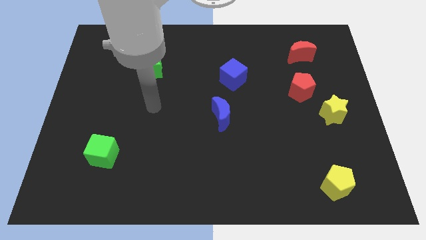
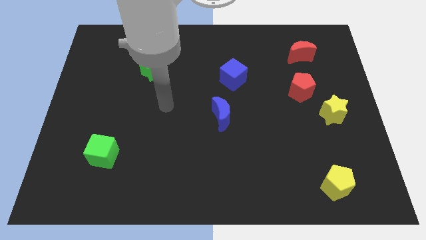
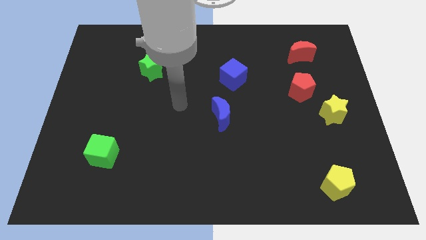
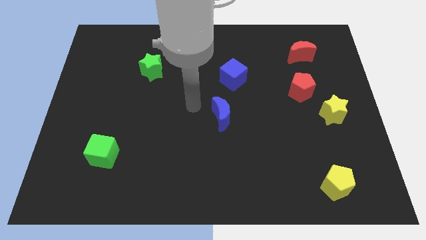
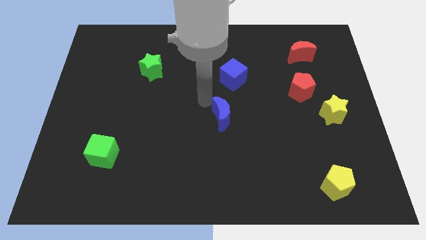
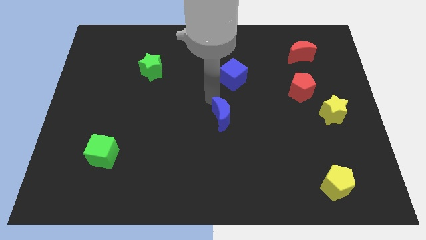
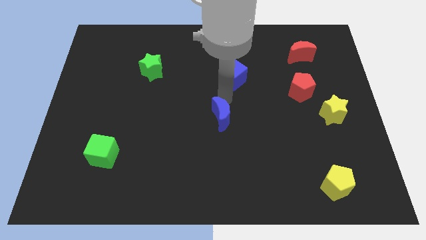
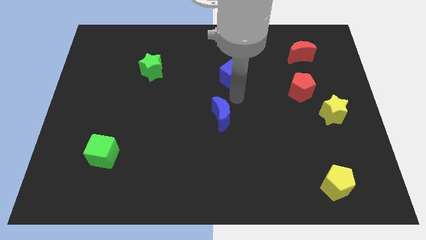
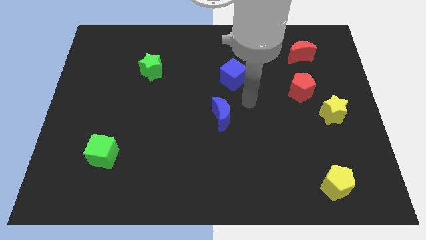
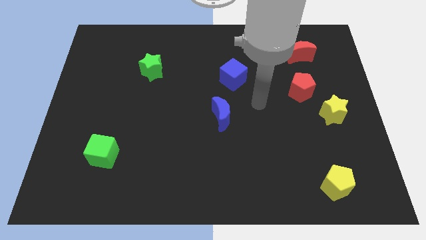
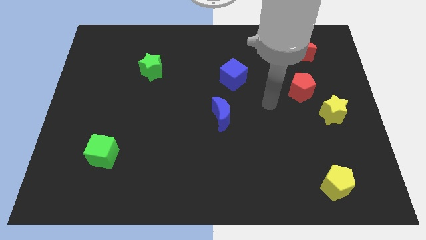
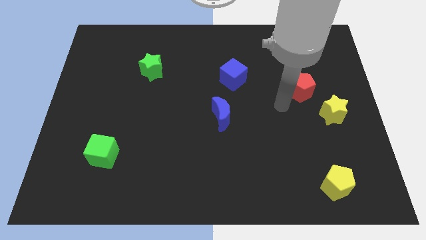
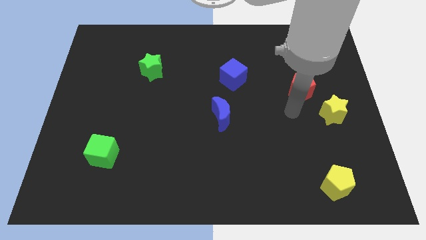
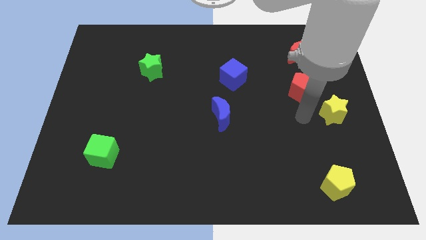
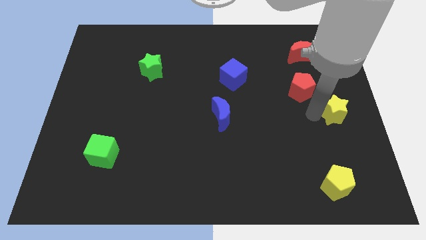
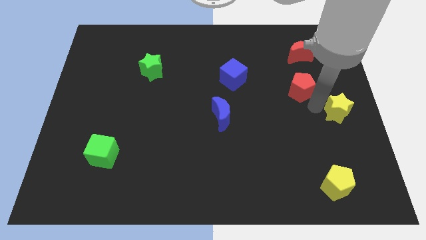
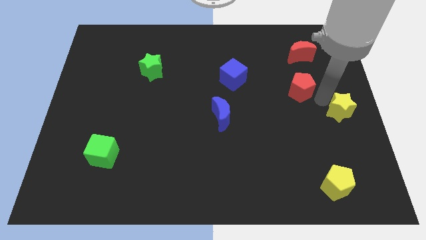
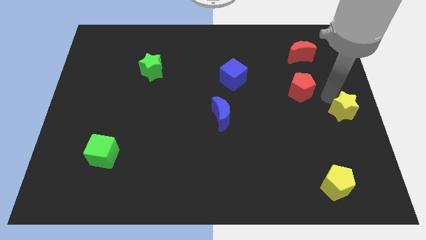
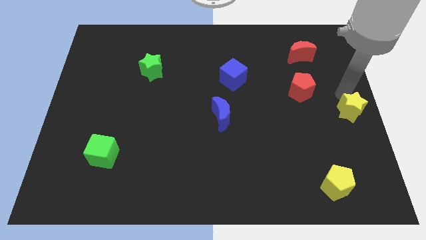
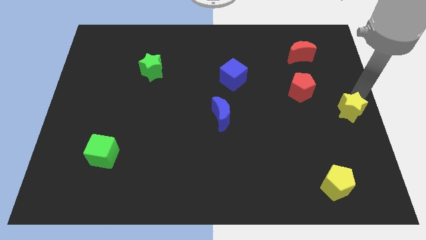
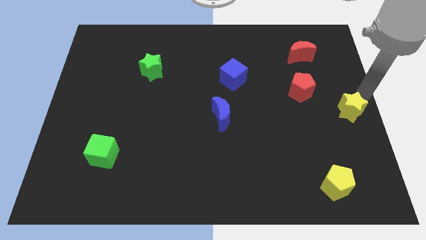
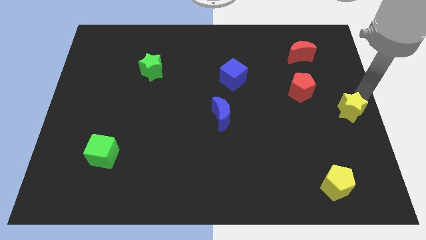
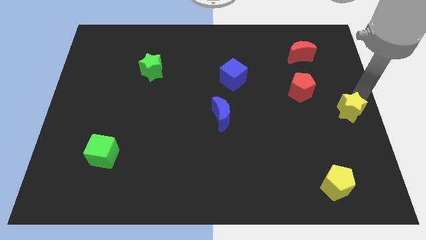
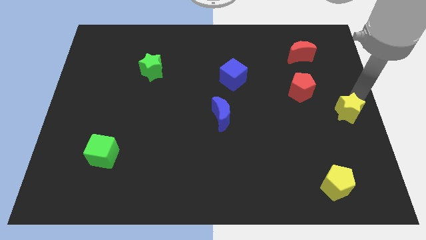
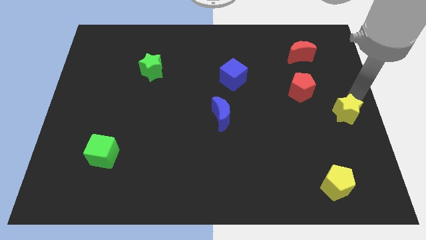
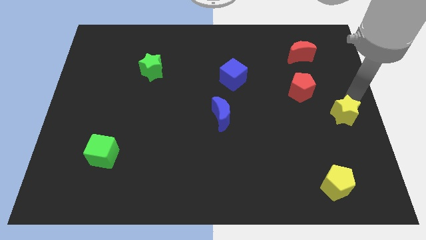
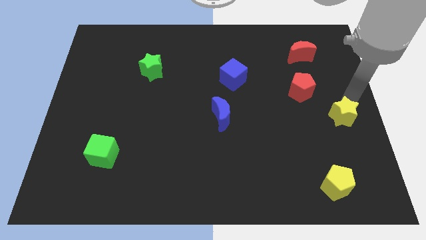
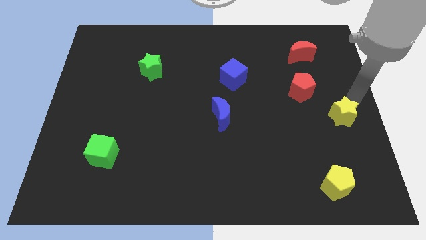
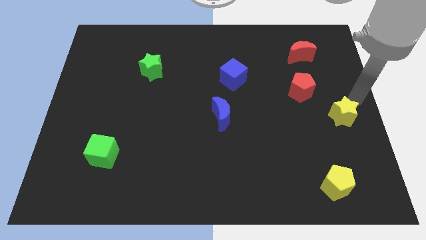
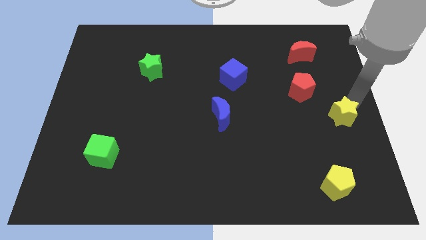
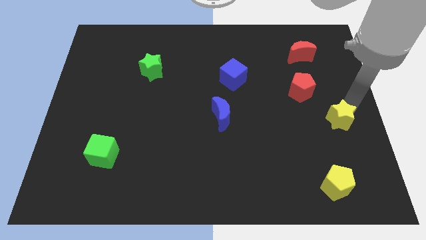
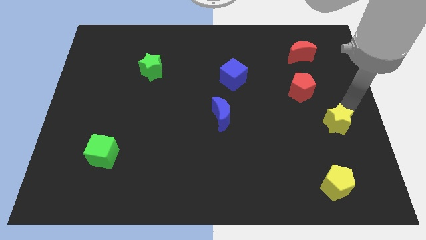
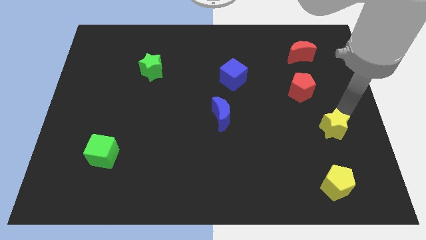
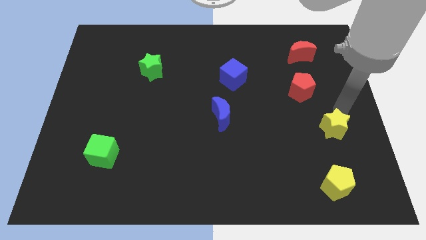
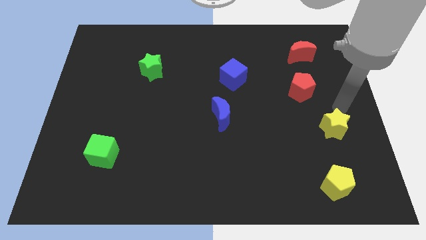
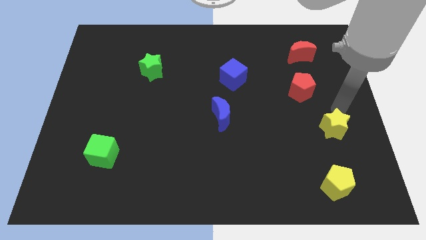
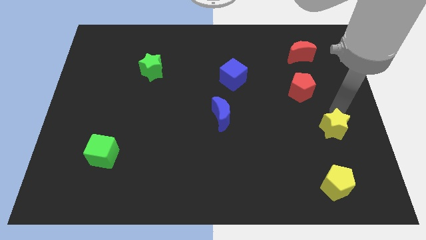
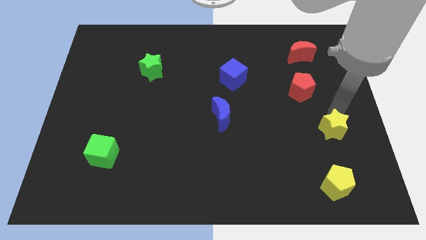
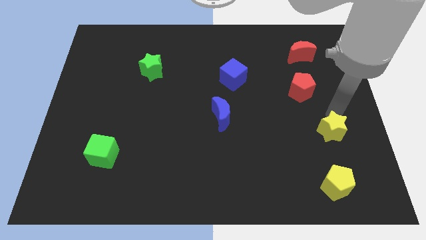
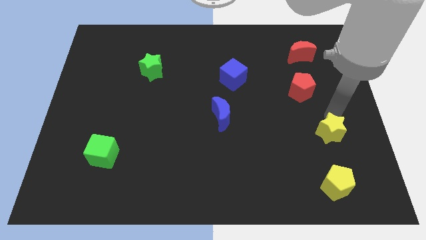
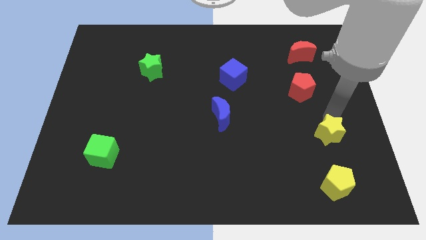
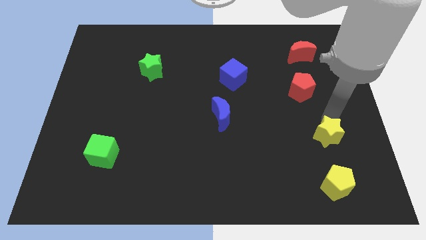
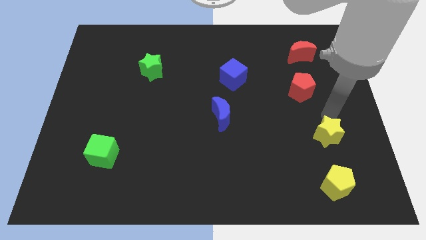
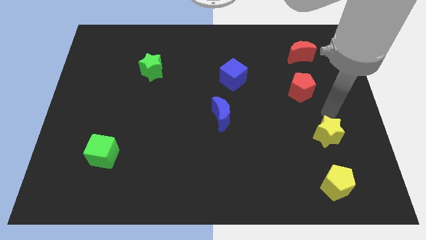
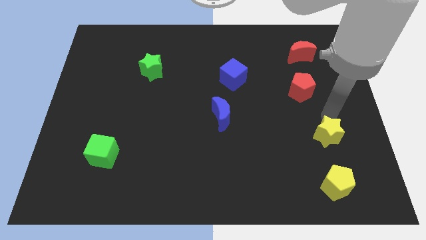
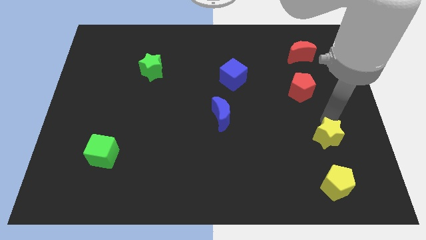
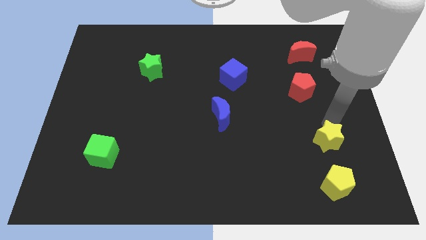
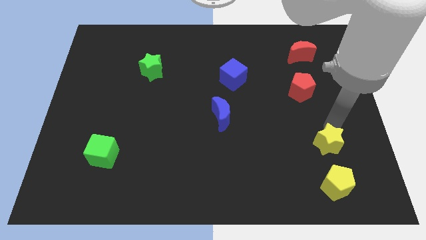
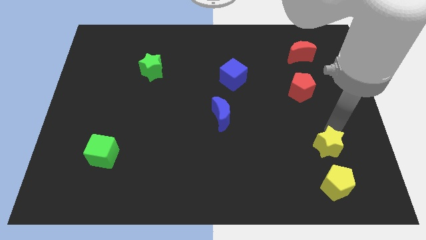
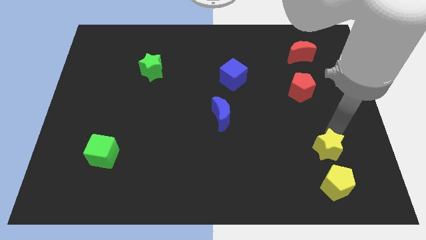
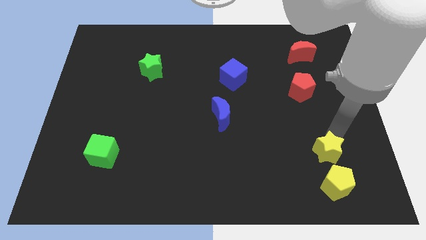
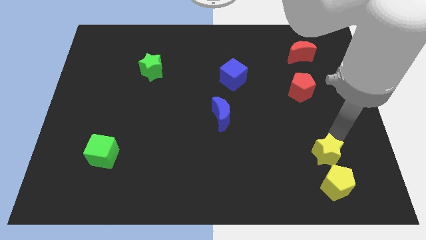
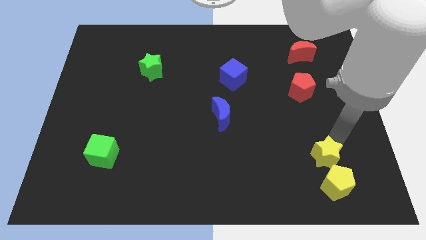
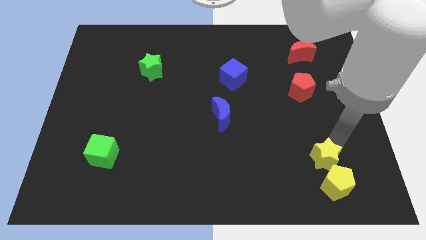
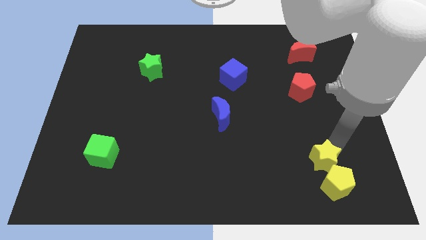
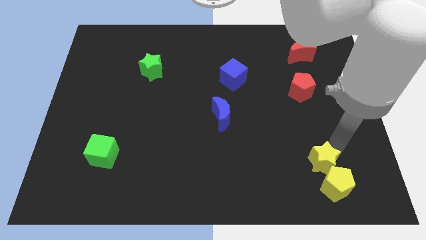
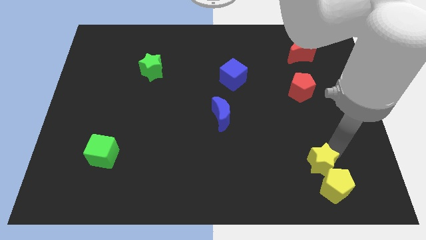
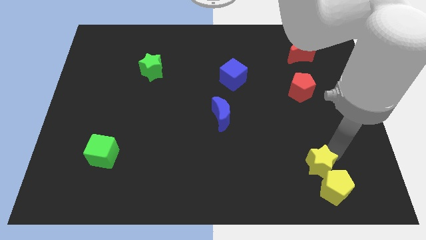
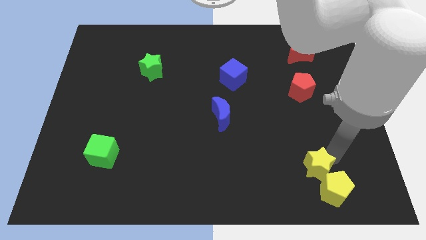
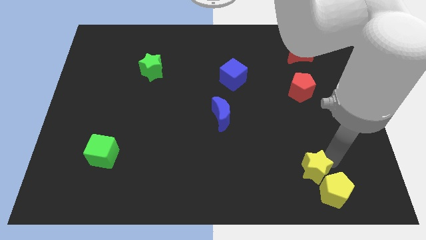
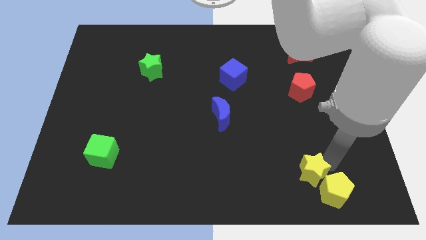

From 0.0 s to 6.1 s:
slide the yellow star to the left side of the yellow pentagon

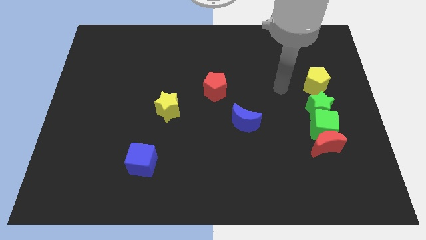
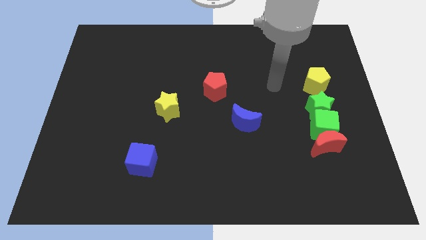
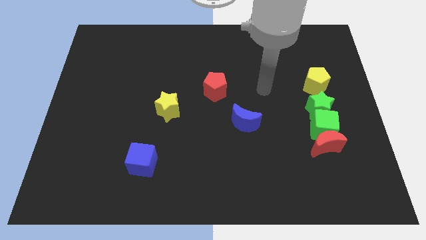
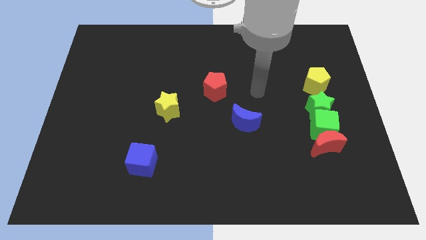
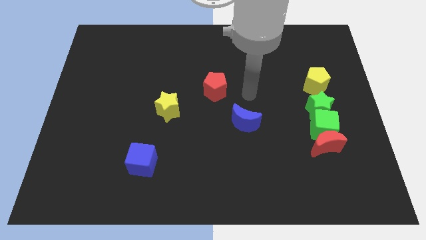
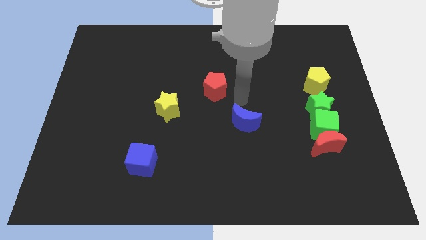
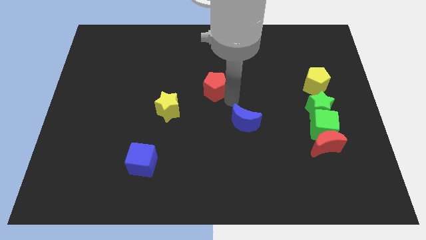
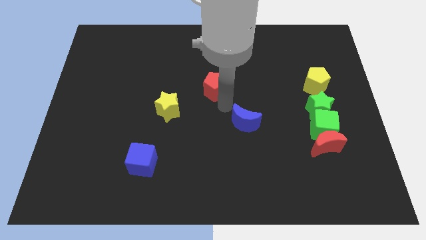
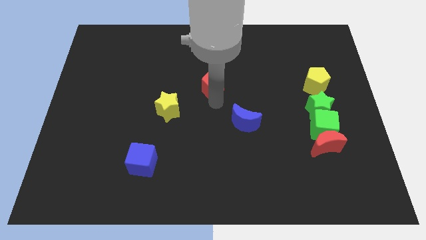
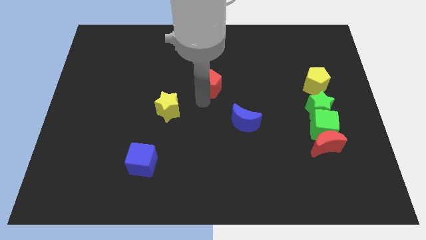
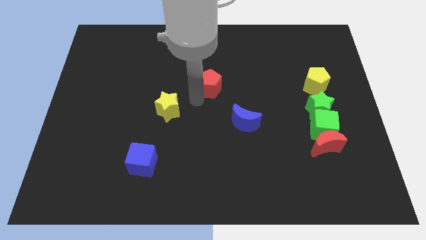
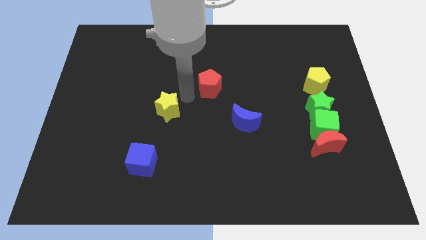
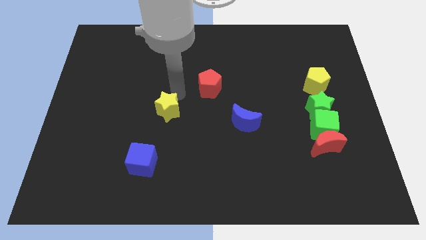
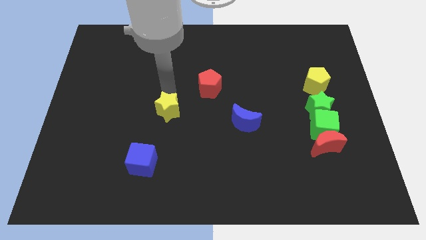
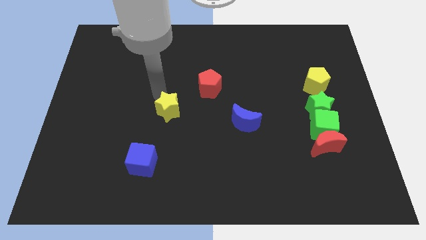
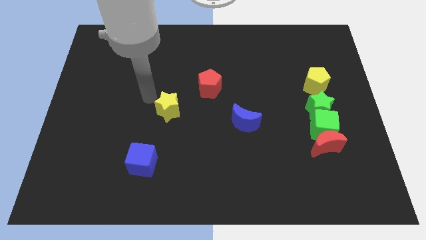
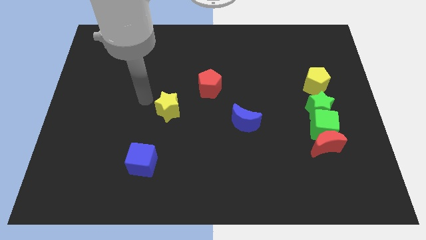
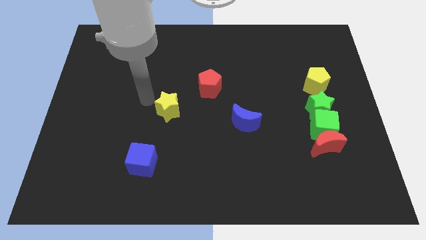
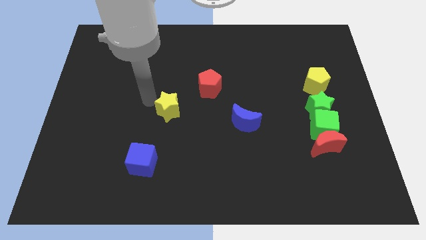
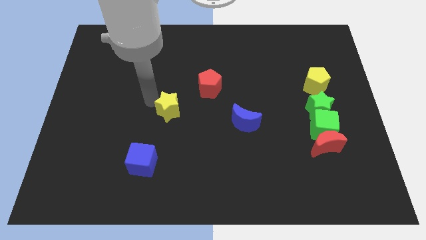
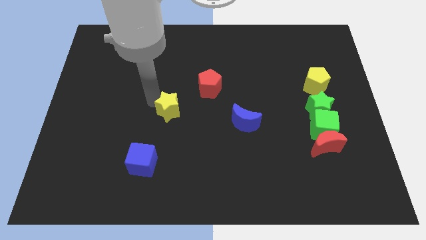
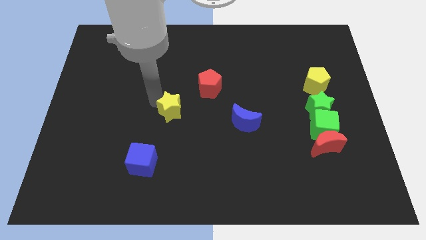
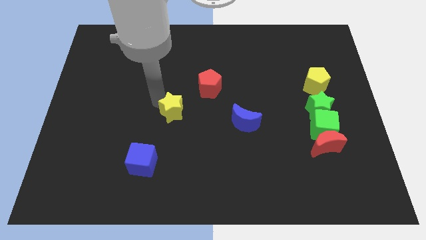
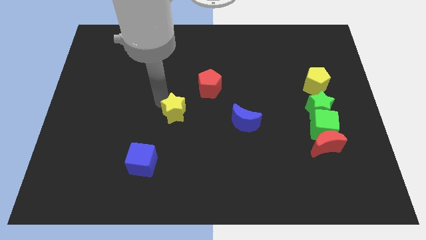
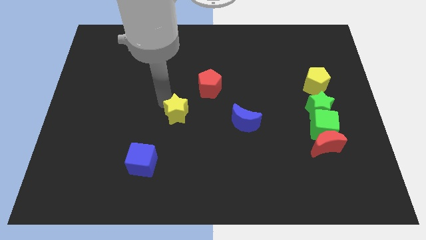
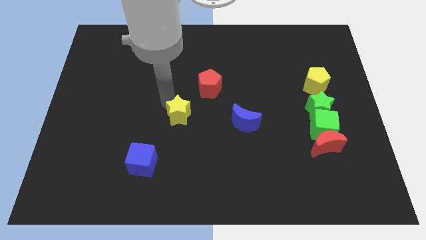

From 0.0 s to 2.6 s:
push the yellow star to the left of the blue moon
